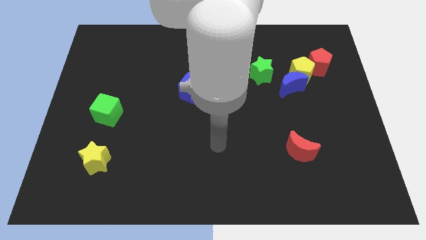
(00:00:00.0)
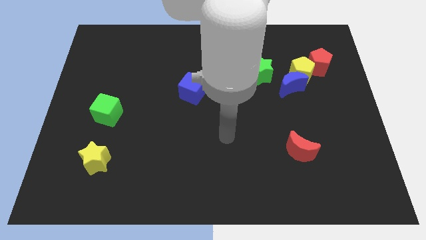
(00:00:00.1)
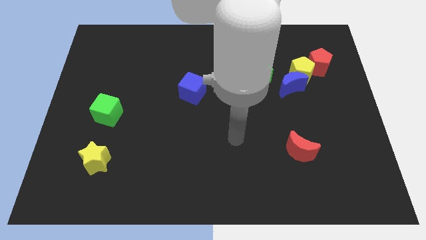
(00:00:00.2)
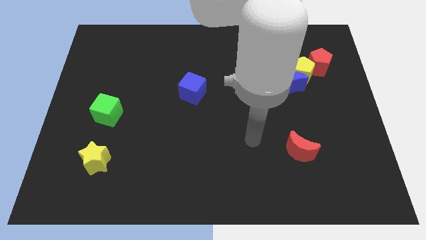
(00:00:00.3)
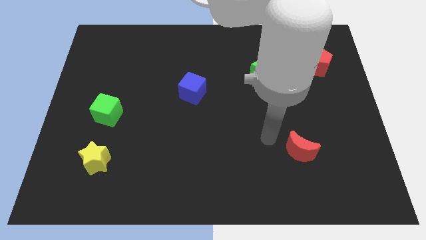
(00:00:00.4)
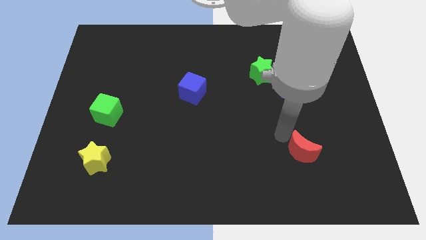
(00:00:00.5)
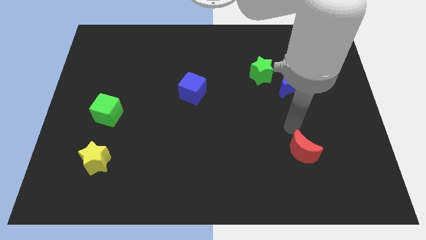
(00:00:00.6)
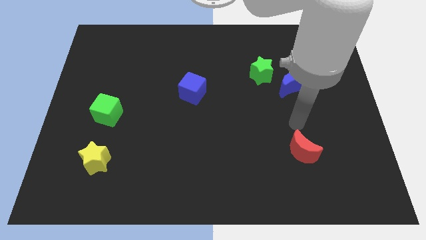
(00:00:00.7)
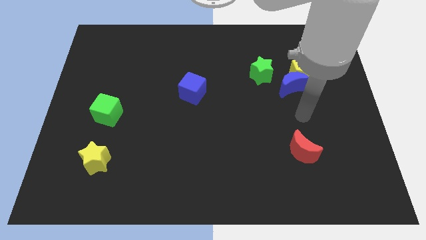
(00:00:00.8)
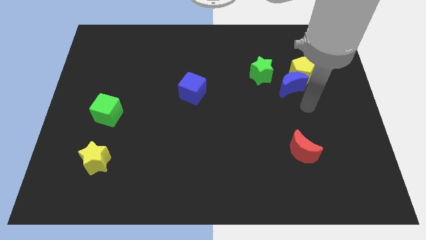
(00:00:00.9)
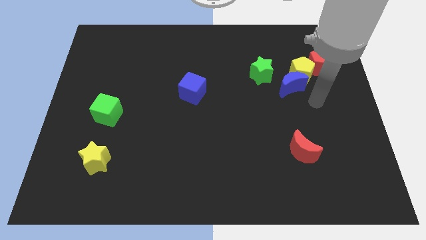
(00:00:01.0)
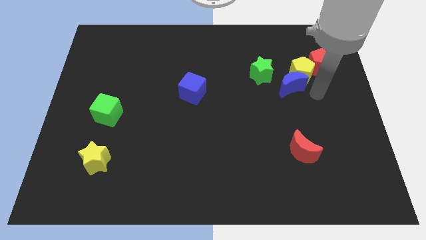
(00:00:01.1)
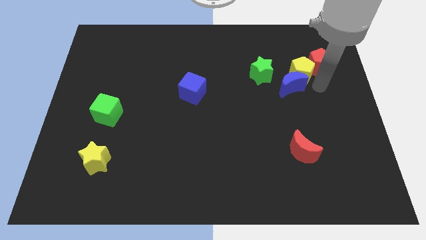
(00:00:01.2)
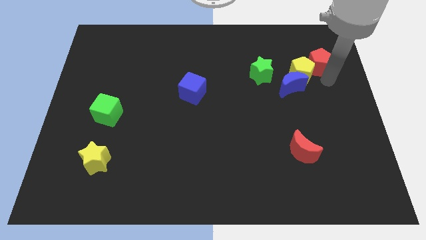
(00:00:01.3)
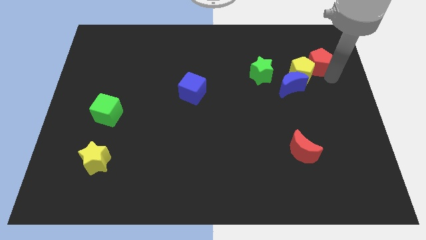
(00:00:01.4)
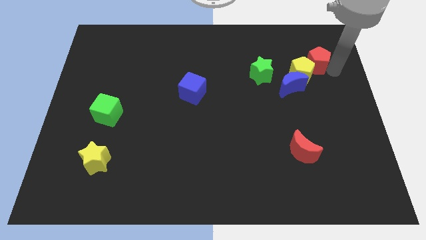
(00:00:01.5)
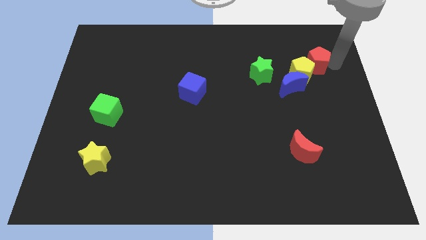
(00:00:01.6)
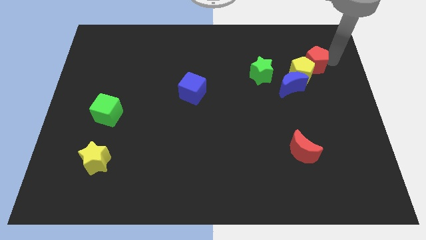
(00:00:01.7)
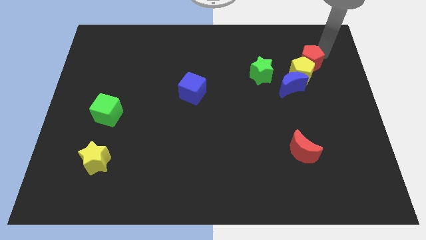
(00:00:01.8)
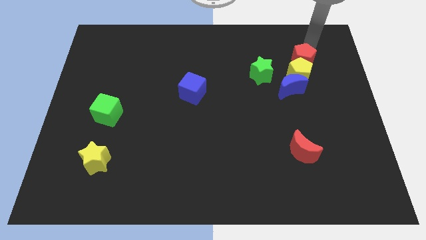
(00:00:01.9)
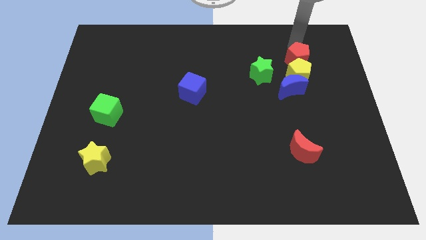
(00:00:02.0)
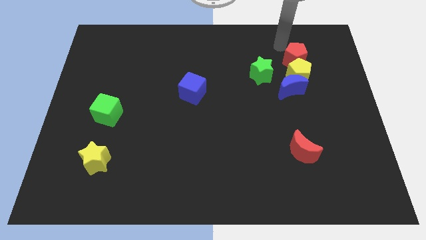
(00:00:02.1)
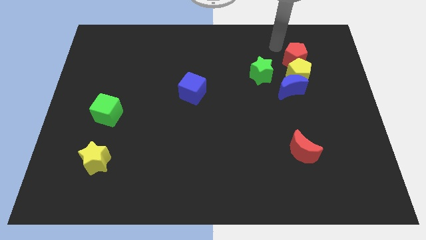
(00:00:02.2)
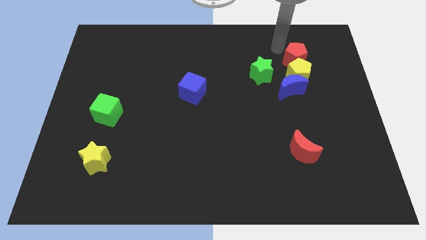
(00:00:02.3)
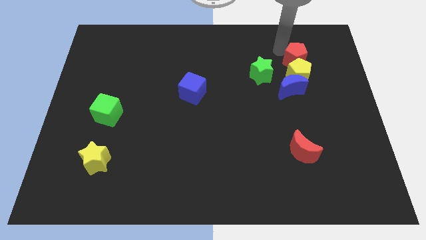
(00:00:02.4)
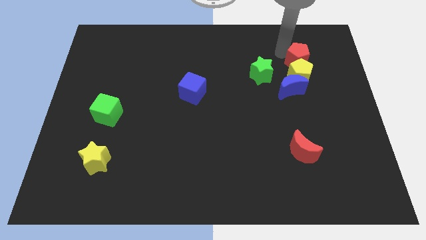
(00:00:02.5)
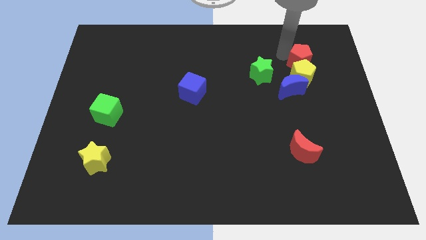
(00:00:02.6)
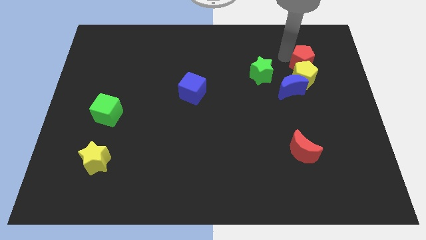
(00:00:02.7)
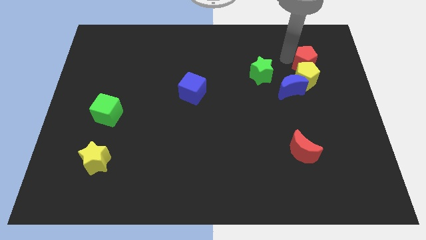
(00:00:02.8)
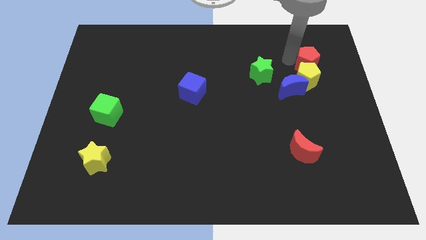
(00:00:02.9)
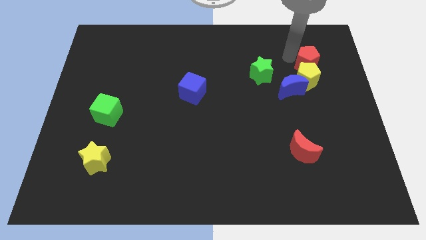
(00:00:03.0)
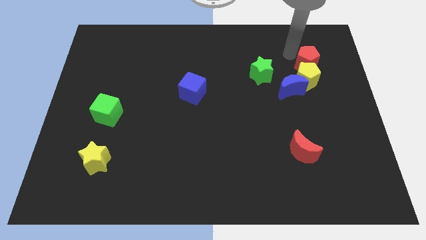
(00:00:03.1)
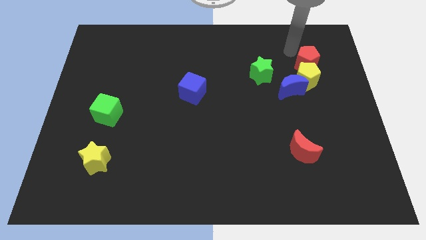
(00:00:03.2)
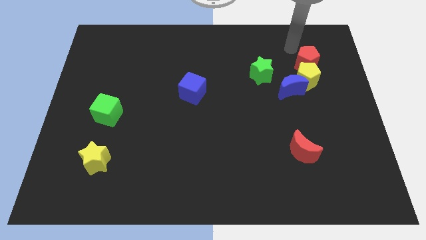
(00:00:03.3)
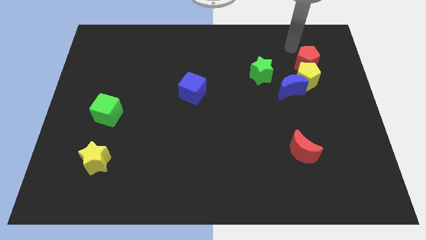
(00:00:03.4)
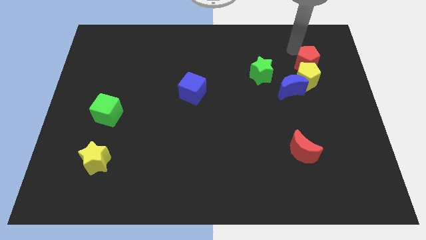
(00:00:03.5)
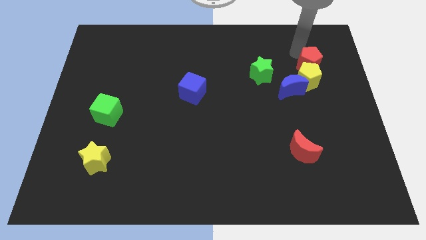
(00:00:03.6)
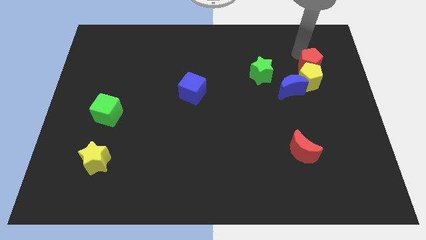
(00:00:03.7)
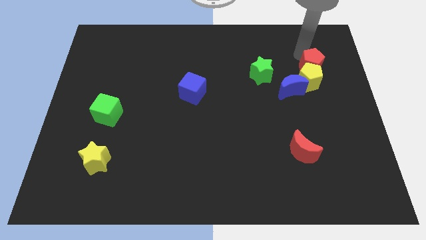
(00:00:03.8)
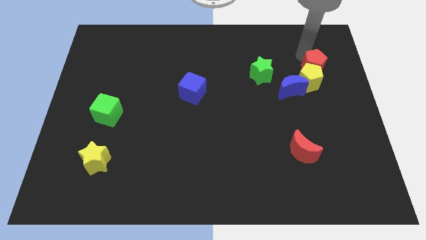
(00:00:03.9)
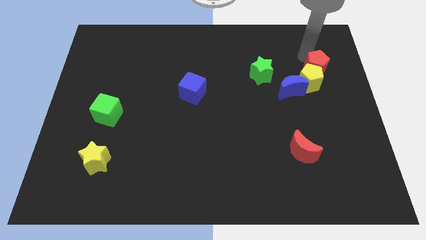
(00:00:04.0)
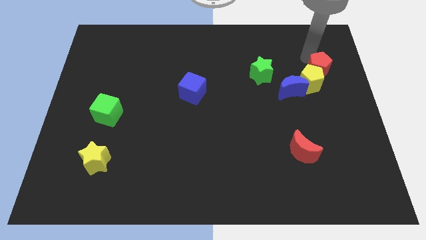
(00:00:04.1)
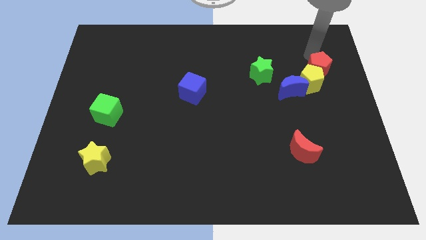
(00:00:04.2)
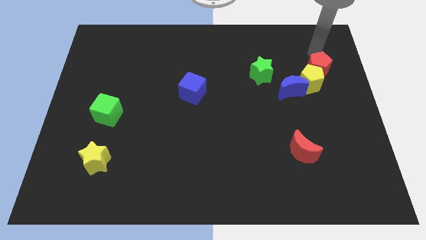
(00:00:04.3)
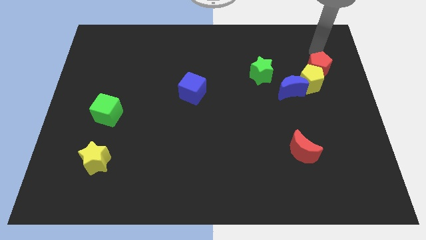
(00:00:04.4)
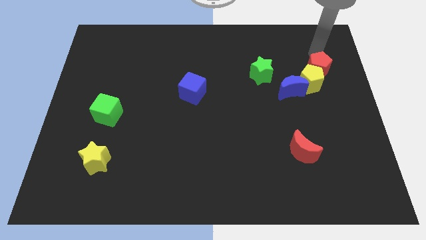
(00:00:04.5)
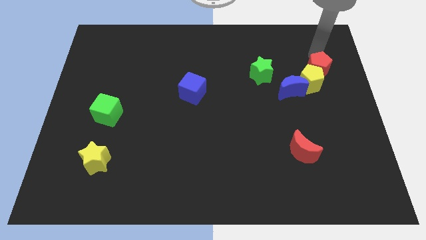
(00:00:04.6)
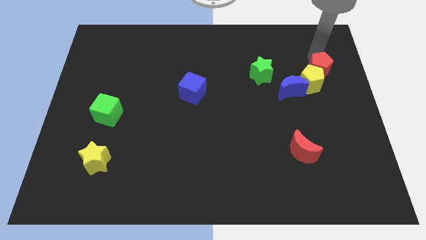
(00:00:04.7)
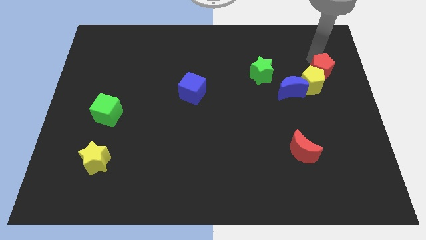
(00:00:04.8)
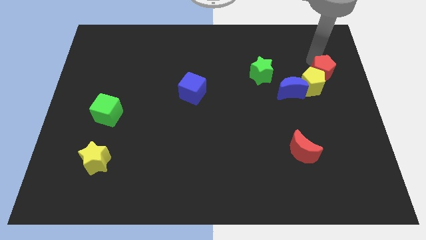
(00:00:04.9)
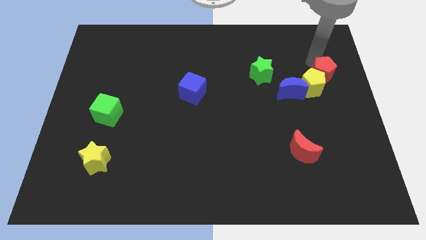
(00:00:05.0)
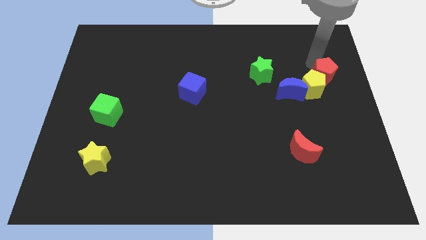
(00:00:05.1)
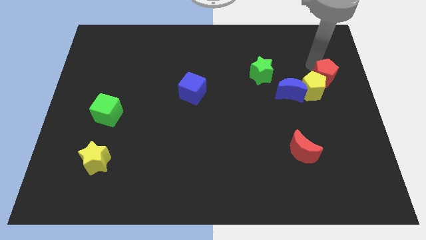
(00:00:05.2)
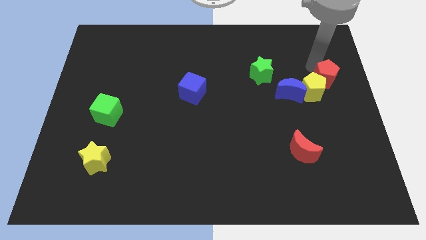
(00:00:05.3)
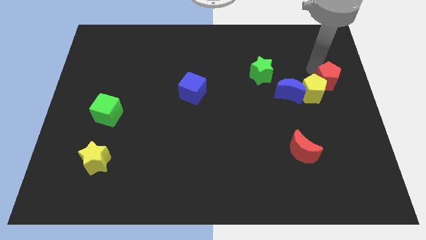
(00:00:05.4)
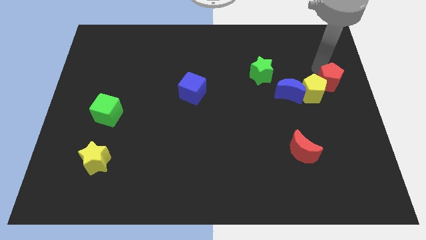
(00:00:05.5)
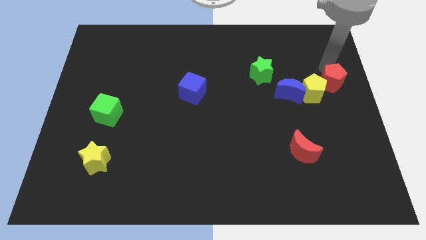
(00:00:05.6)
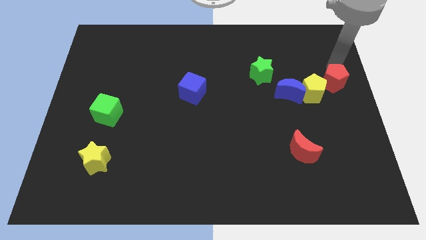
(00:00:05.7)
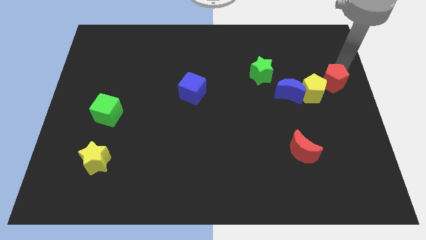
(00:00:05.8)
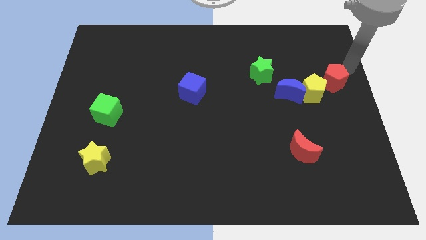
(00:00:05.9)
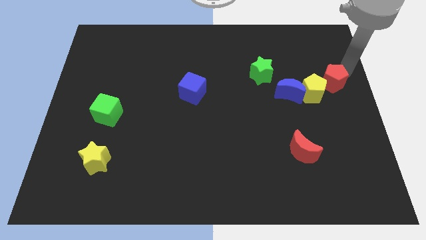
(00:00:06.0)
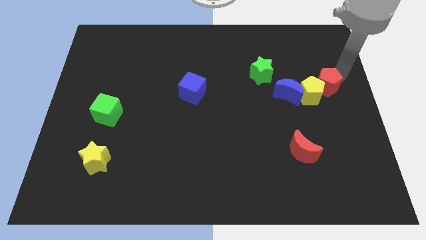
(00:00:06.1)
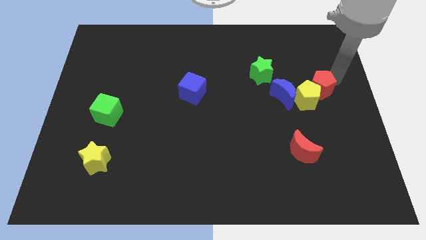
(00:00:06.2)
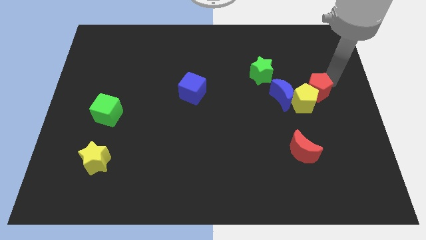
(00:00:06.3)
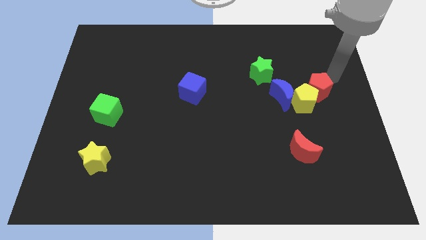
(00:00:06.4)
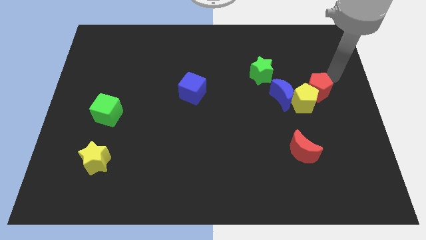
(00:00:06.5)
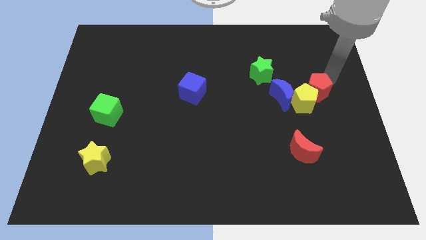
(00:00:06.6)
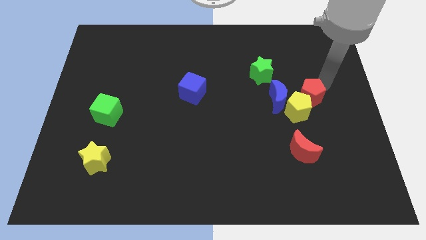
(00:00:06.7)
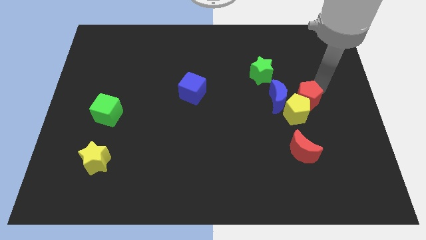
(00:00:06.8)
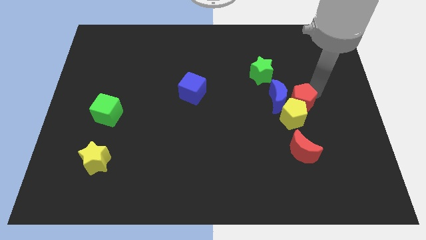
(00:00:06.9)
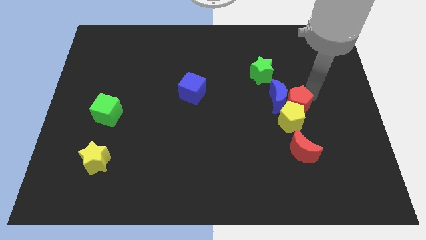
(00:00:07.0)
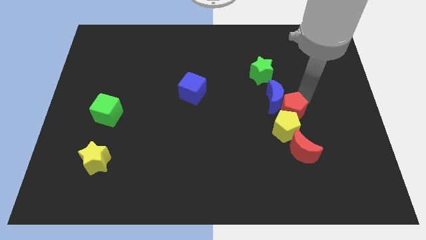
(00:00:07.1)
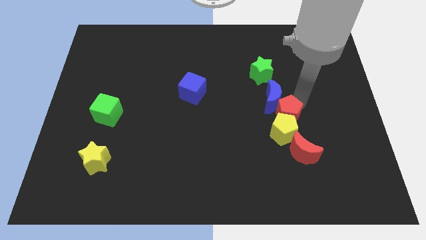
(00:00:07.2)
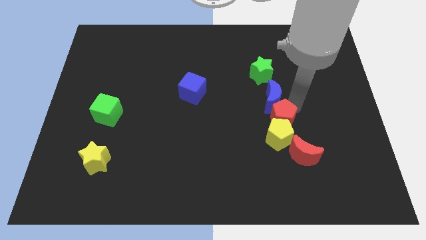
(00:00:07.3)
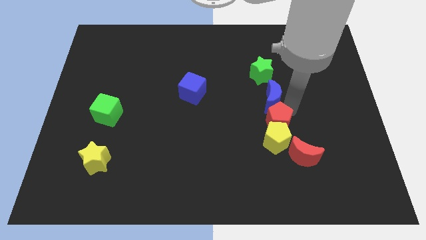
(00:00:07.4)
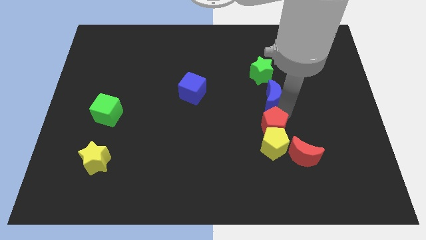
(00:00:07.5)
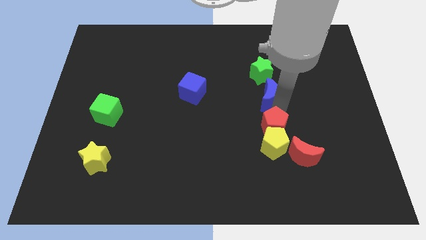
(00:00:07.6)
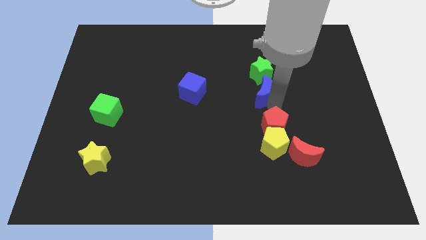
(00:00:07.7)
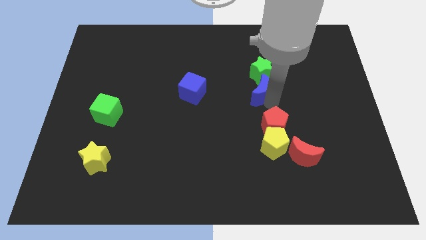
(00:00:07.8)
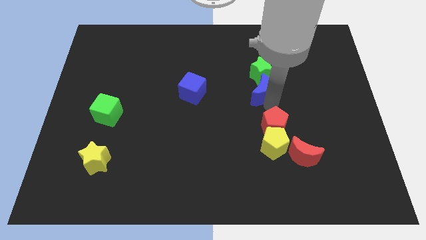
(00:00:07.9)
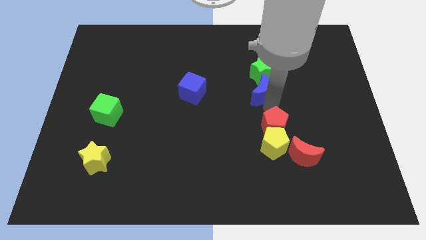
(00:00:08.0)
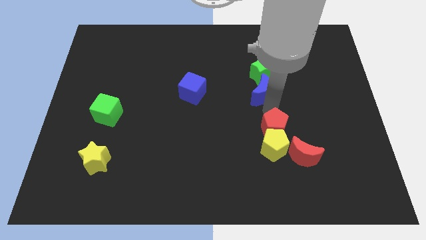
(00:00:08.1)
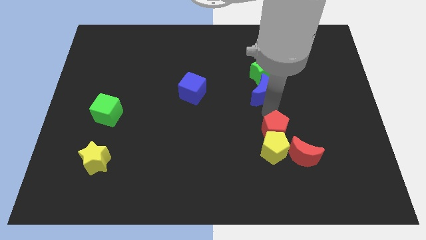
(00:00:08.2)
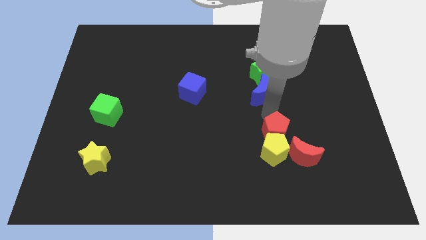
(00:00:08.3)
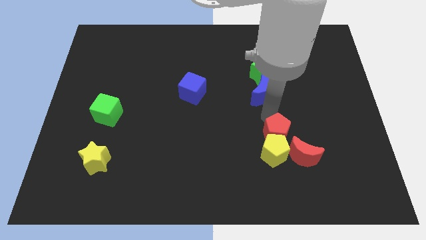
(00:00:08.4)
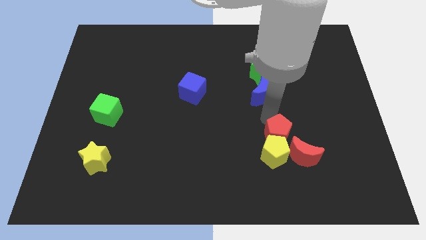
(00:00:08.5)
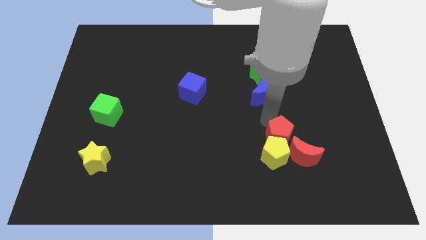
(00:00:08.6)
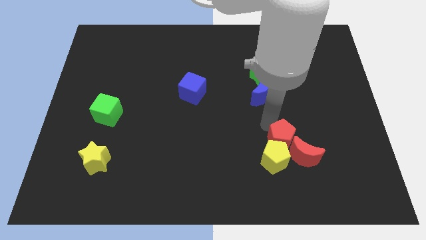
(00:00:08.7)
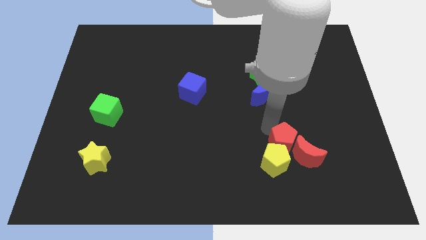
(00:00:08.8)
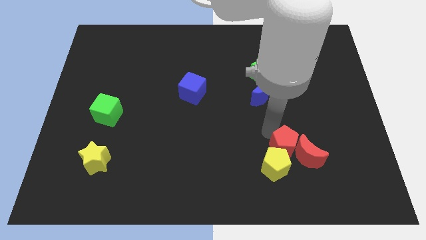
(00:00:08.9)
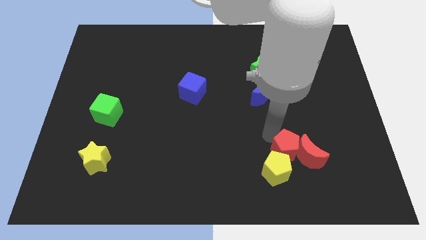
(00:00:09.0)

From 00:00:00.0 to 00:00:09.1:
put the red pentagon to the bottom left side of the red moon
